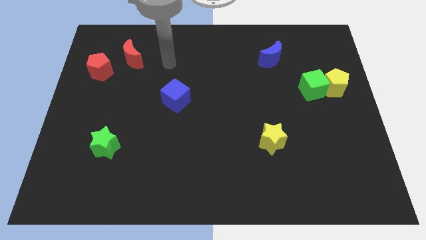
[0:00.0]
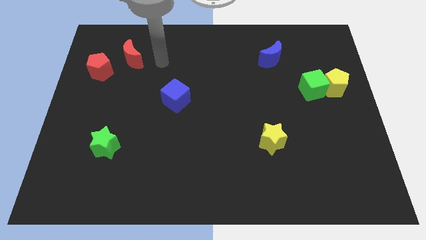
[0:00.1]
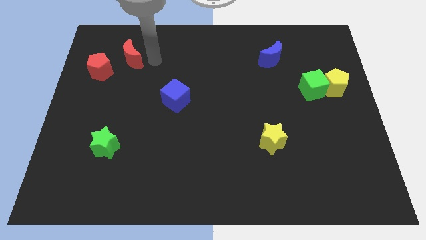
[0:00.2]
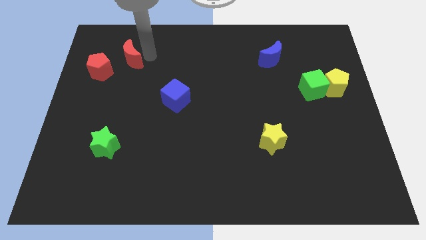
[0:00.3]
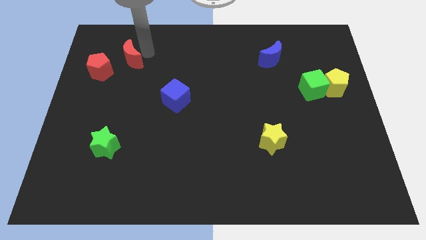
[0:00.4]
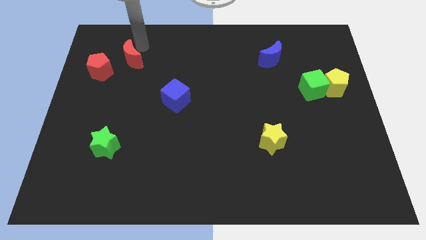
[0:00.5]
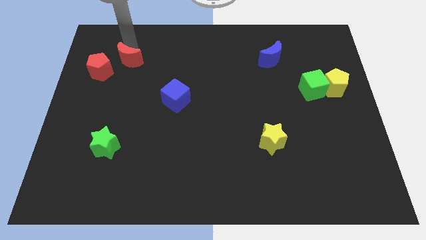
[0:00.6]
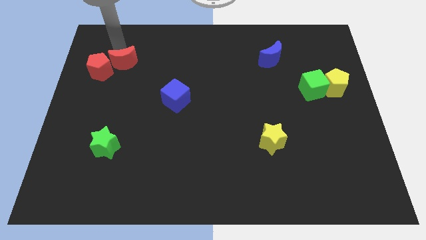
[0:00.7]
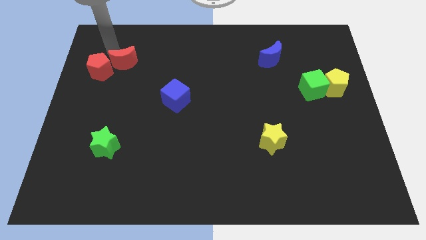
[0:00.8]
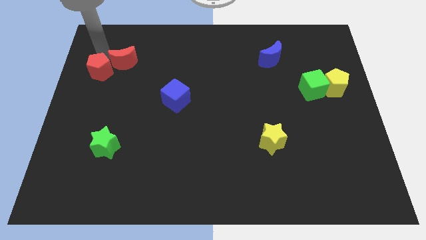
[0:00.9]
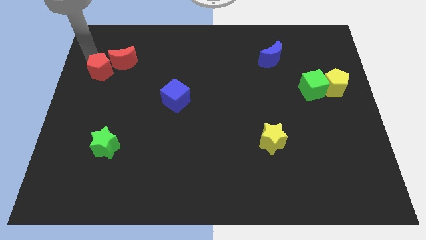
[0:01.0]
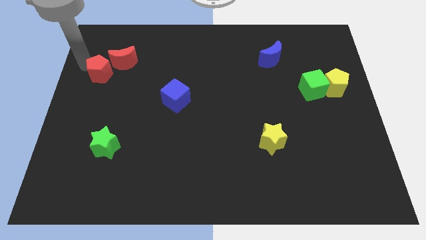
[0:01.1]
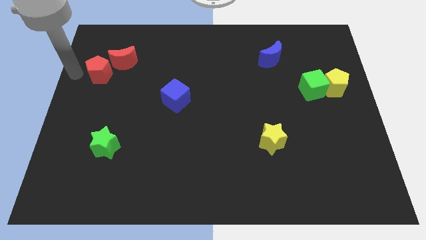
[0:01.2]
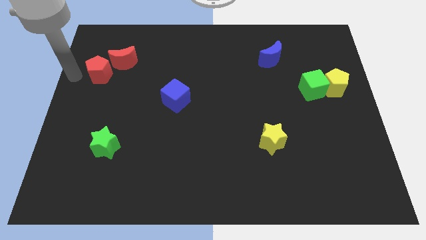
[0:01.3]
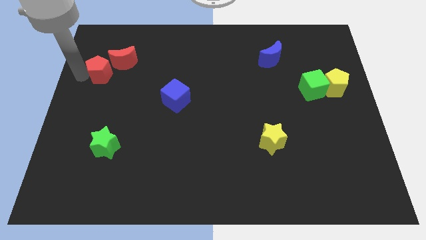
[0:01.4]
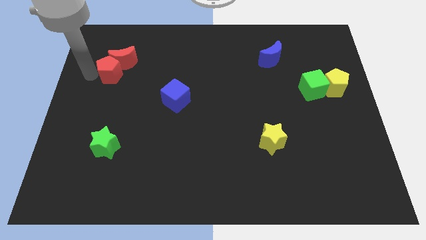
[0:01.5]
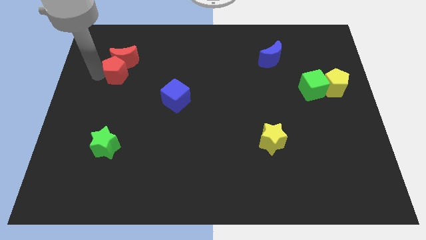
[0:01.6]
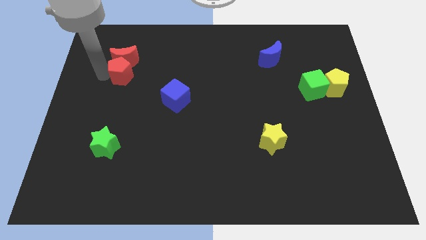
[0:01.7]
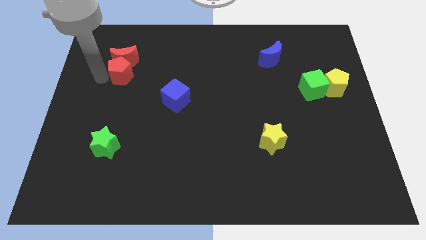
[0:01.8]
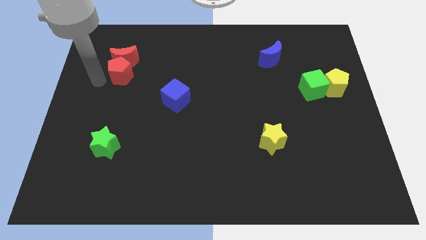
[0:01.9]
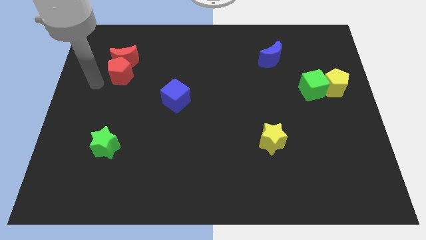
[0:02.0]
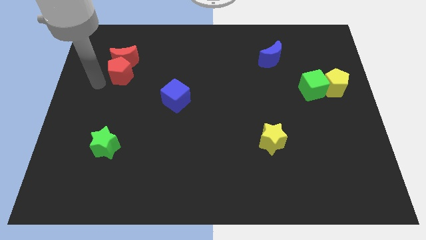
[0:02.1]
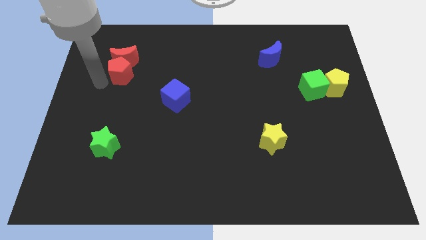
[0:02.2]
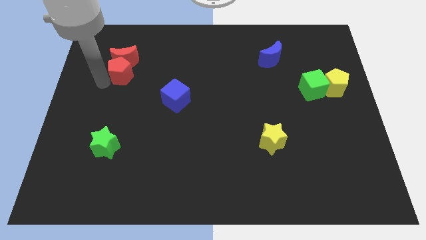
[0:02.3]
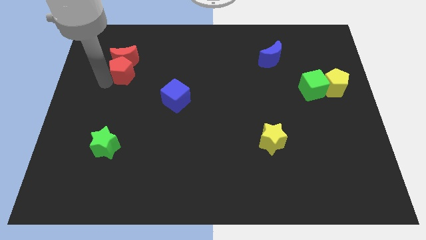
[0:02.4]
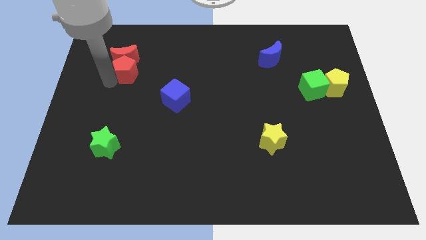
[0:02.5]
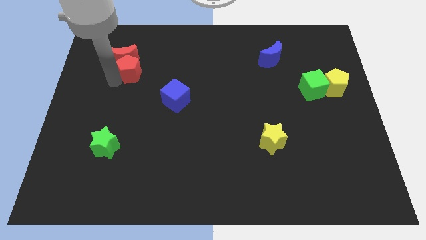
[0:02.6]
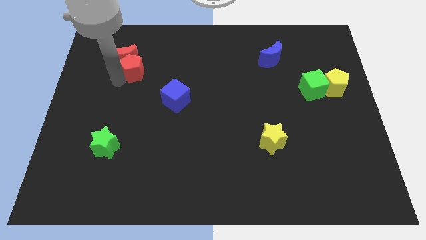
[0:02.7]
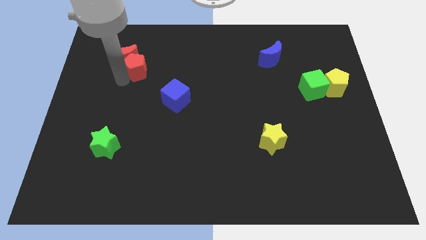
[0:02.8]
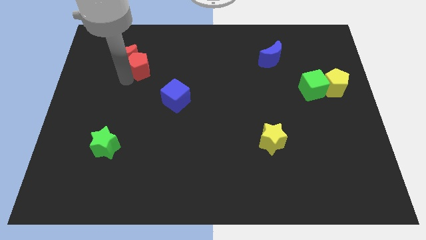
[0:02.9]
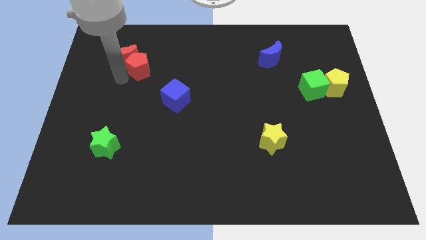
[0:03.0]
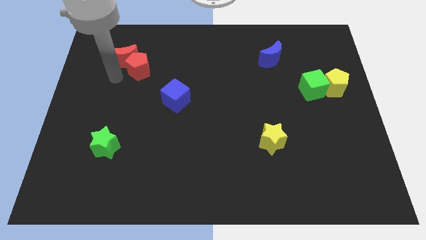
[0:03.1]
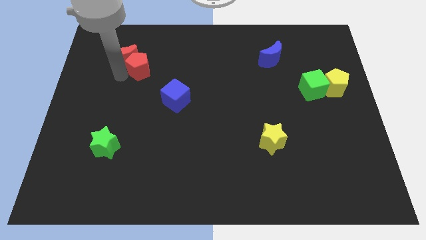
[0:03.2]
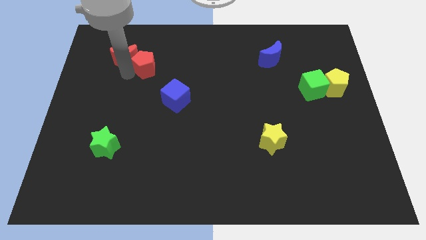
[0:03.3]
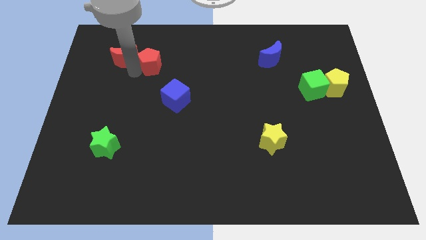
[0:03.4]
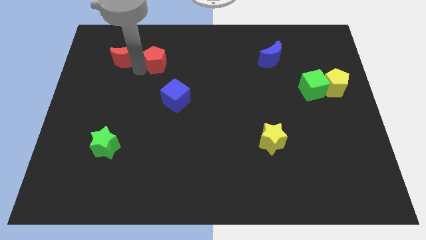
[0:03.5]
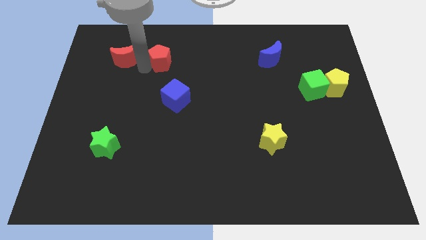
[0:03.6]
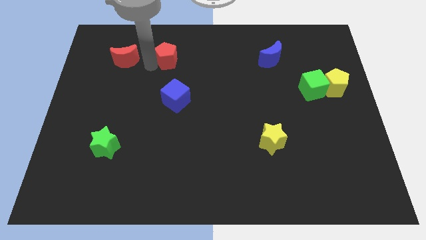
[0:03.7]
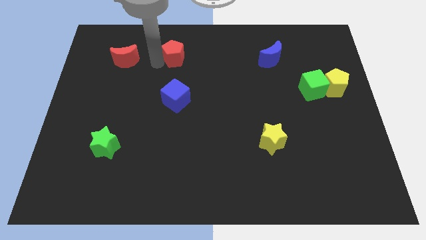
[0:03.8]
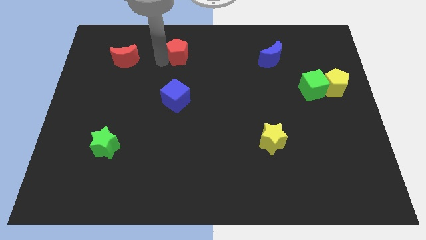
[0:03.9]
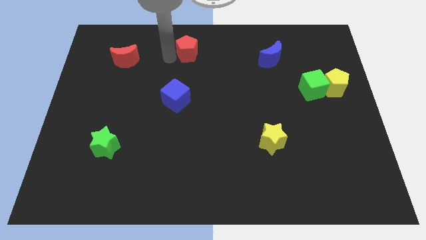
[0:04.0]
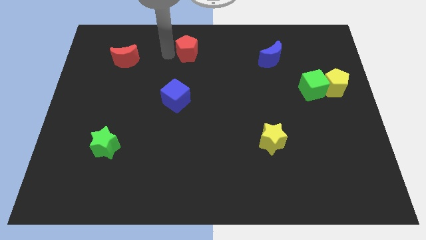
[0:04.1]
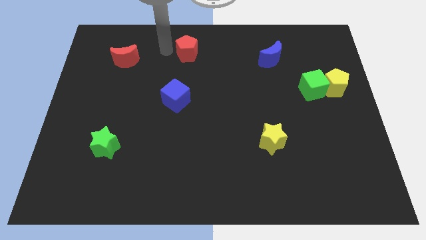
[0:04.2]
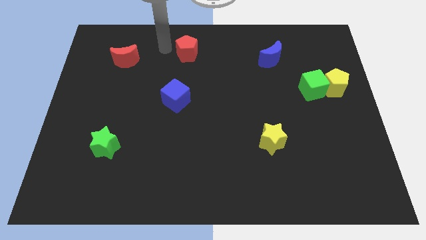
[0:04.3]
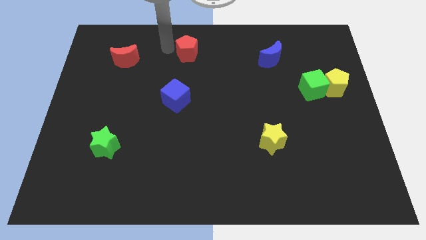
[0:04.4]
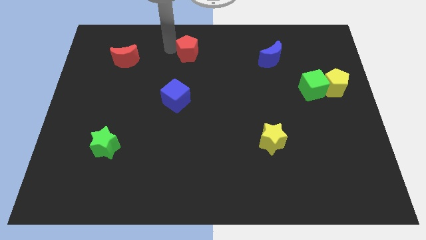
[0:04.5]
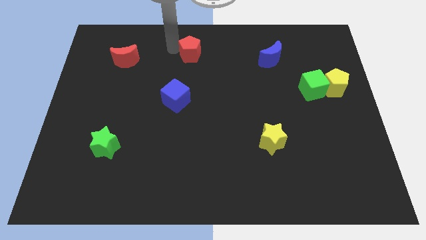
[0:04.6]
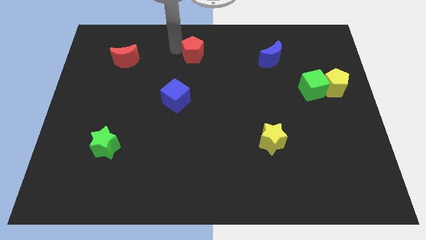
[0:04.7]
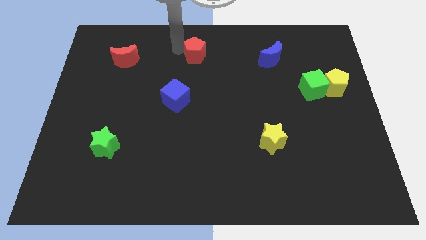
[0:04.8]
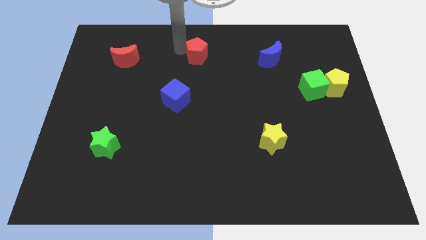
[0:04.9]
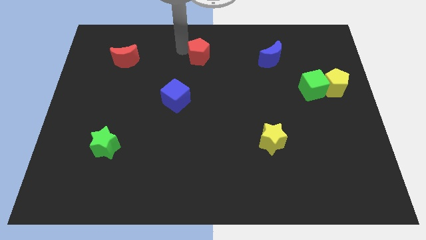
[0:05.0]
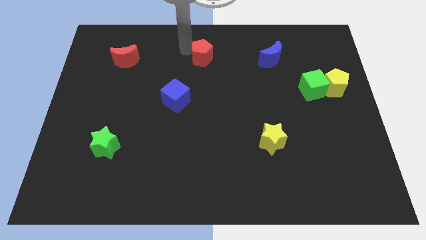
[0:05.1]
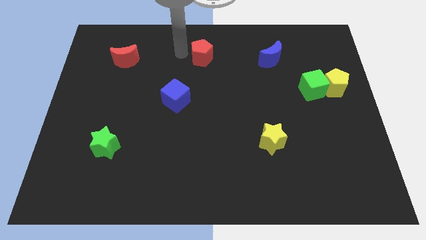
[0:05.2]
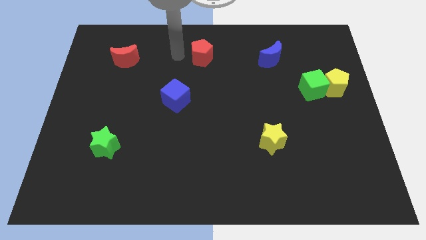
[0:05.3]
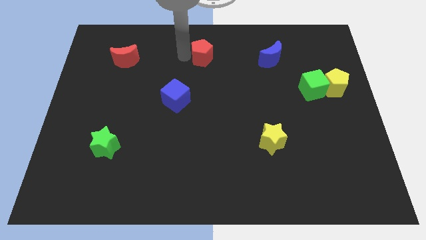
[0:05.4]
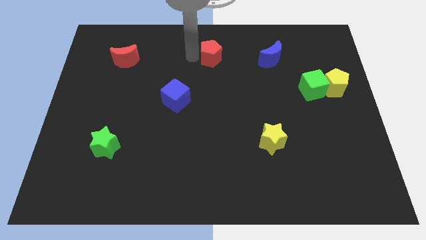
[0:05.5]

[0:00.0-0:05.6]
move the red pentagon left of the blue moon

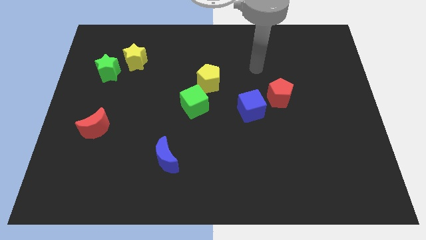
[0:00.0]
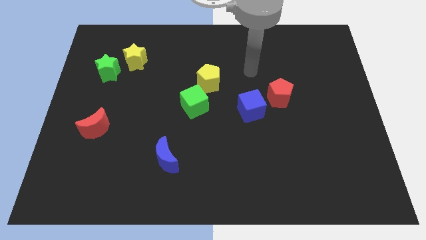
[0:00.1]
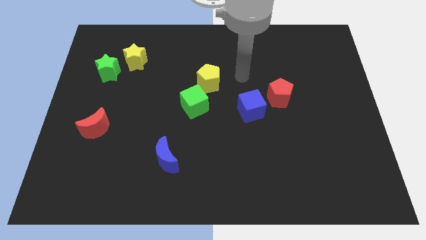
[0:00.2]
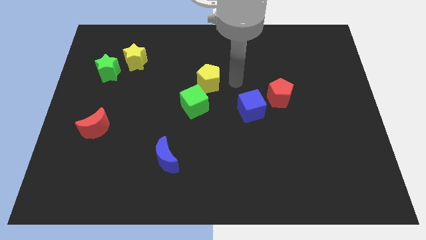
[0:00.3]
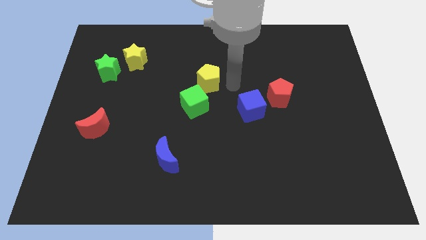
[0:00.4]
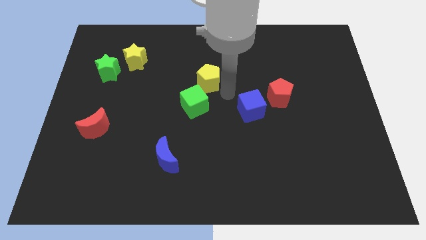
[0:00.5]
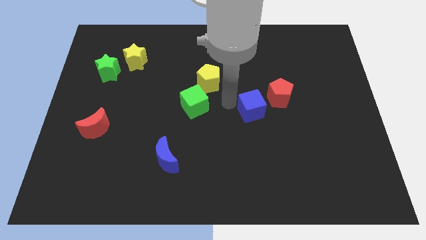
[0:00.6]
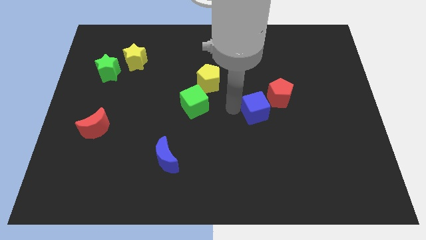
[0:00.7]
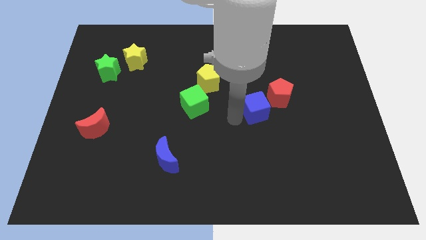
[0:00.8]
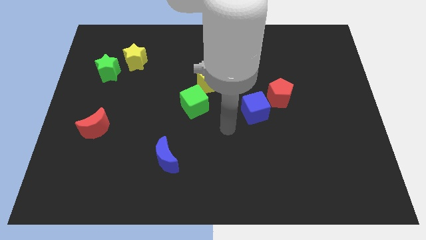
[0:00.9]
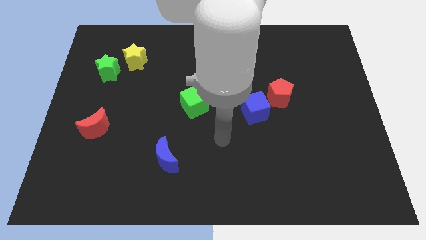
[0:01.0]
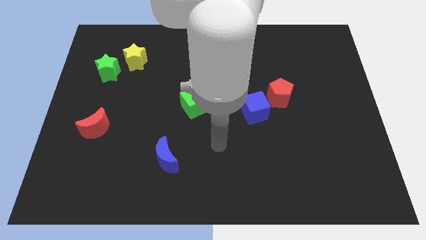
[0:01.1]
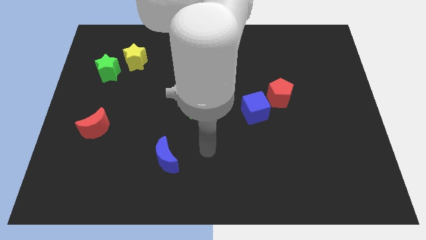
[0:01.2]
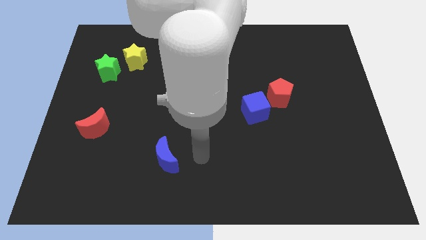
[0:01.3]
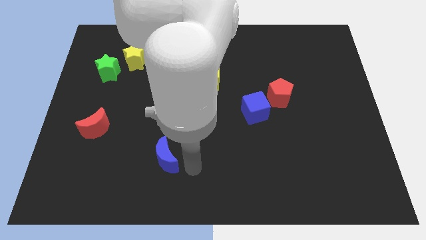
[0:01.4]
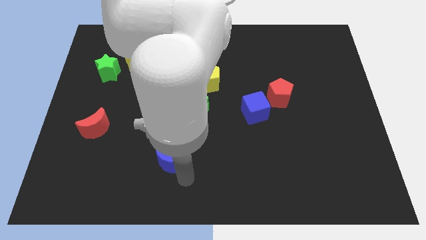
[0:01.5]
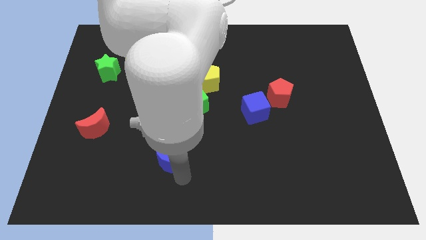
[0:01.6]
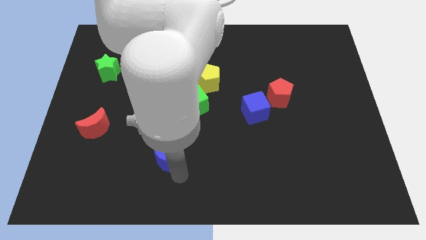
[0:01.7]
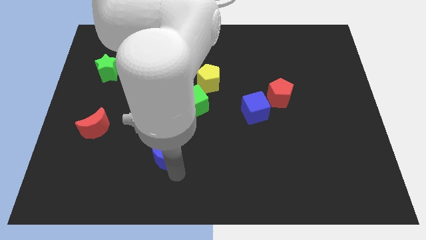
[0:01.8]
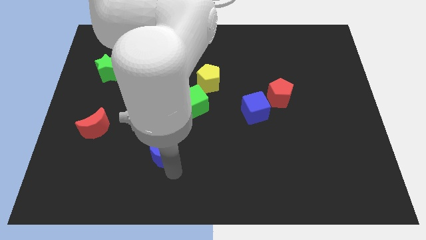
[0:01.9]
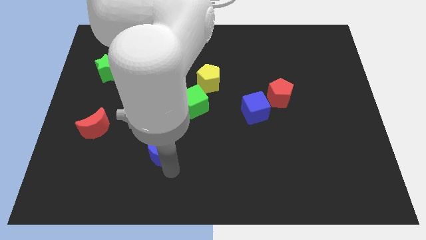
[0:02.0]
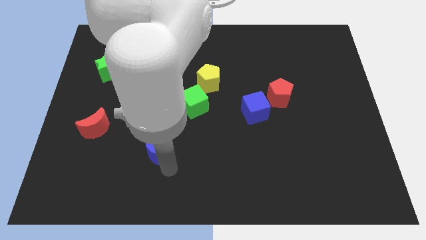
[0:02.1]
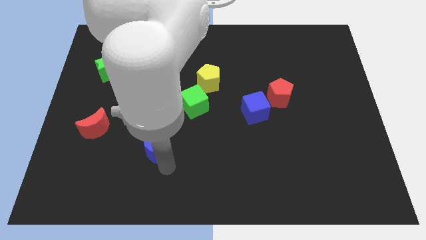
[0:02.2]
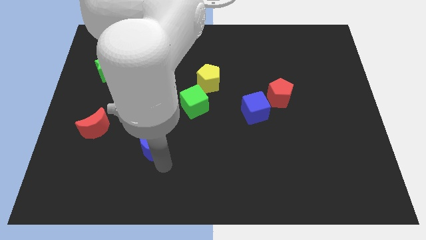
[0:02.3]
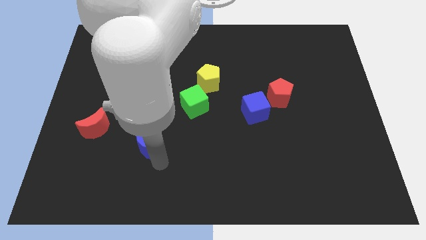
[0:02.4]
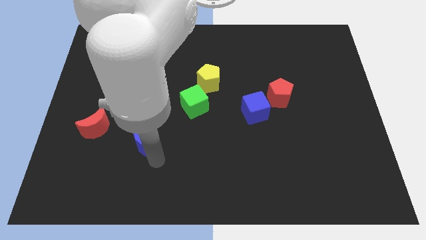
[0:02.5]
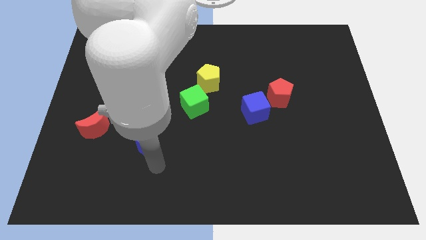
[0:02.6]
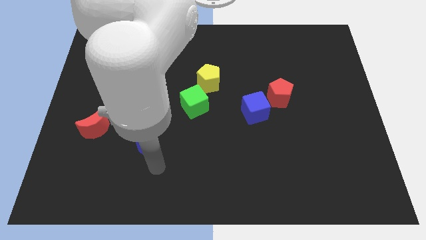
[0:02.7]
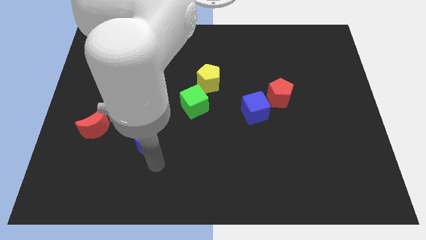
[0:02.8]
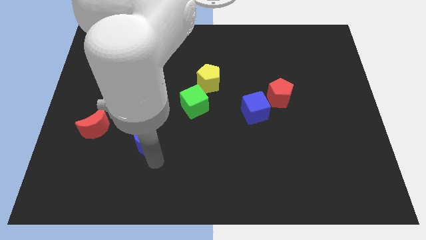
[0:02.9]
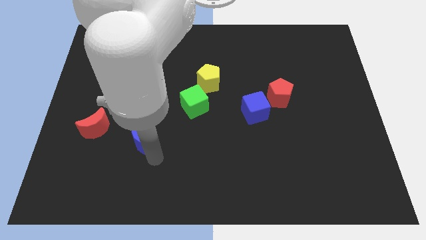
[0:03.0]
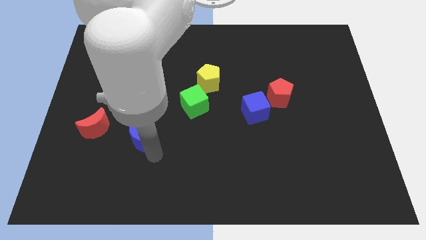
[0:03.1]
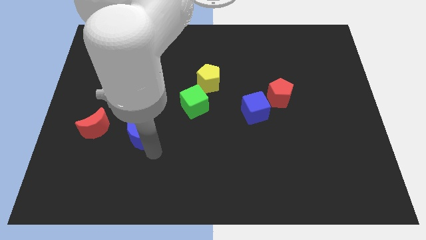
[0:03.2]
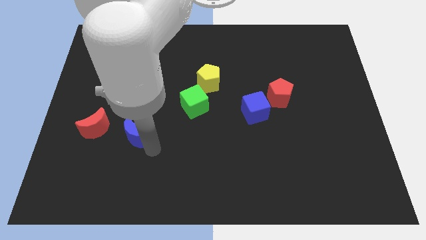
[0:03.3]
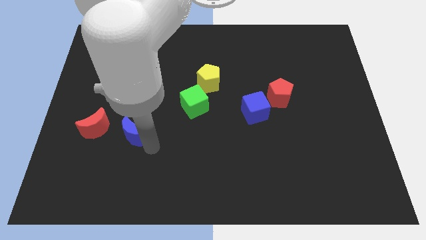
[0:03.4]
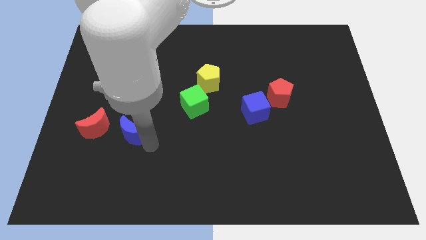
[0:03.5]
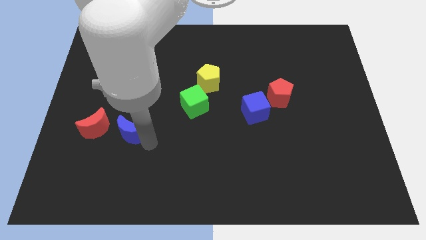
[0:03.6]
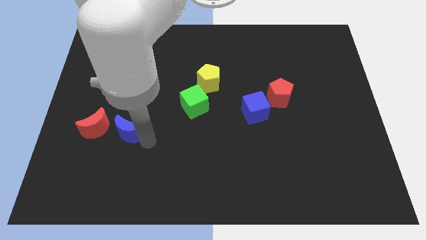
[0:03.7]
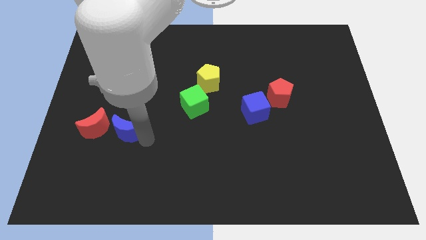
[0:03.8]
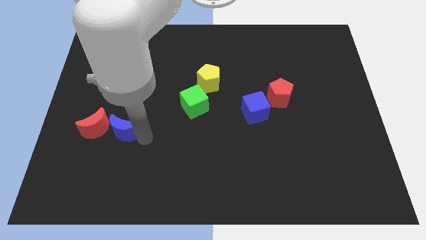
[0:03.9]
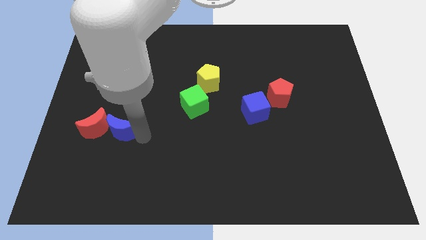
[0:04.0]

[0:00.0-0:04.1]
push the blue moon diagonally up and to the right of the red moon
